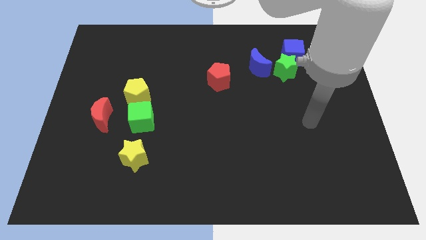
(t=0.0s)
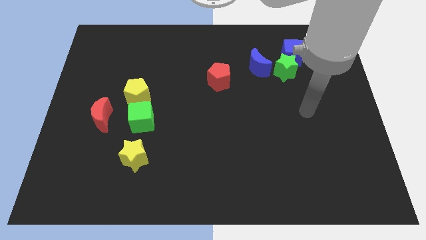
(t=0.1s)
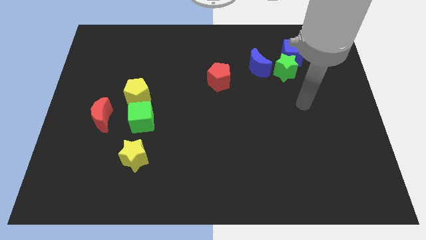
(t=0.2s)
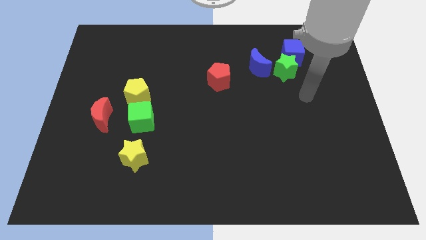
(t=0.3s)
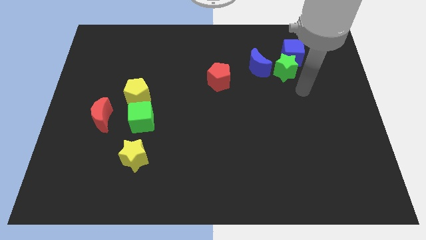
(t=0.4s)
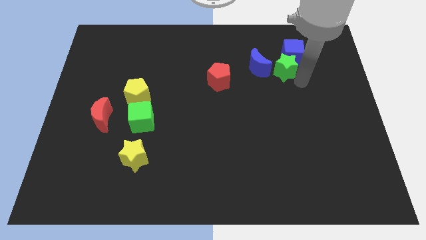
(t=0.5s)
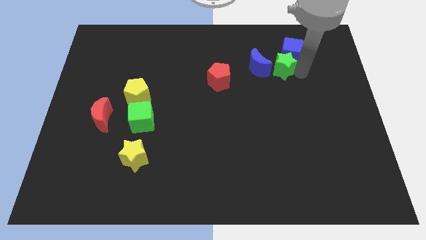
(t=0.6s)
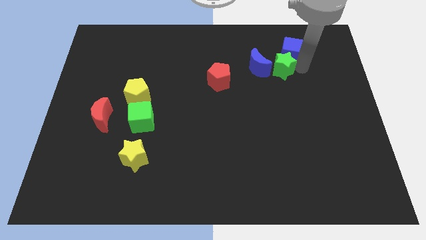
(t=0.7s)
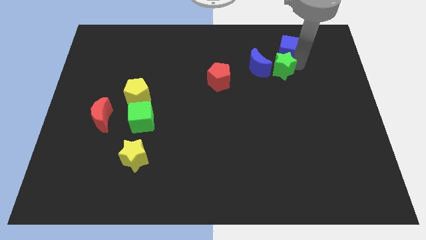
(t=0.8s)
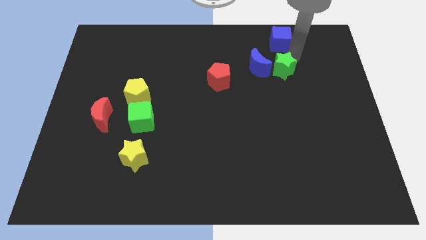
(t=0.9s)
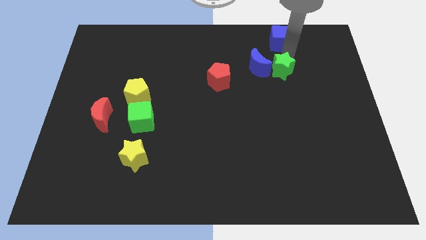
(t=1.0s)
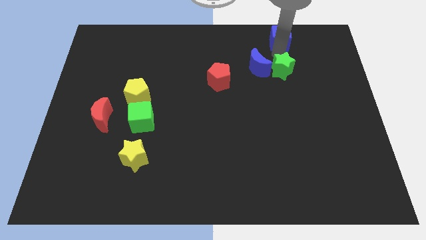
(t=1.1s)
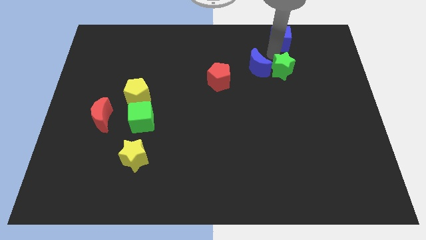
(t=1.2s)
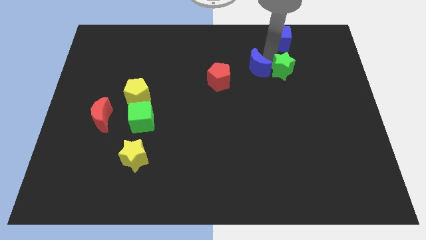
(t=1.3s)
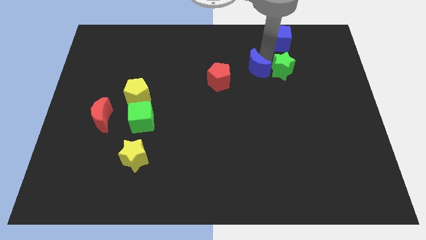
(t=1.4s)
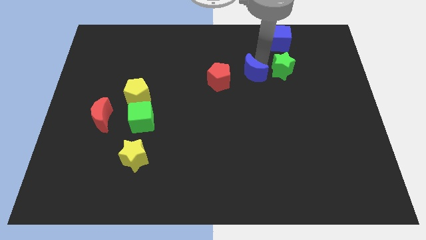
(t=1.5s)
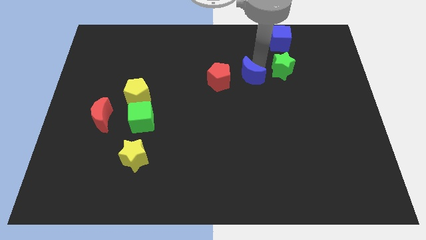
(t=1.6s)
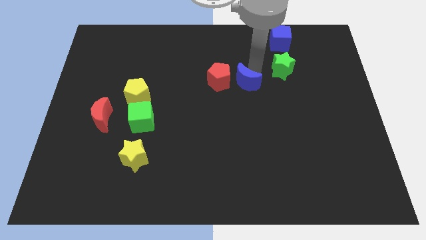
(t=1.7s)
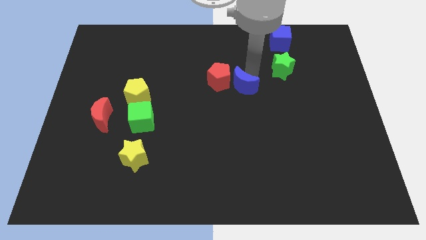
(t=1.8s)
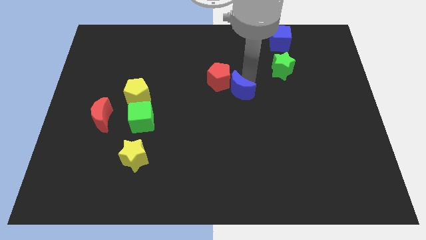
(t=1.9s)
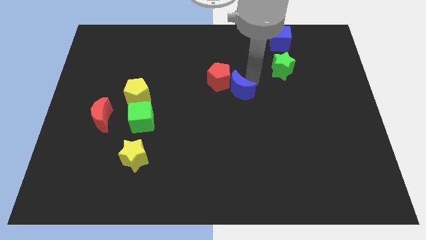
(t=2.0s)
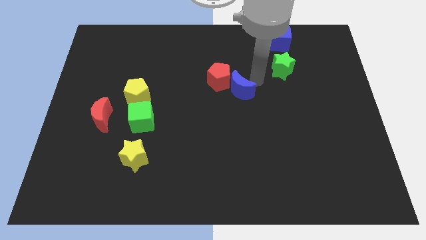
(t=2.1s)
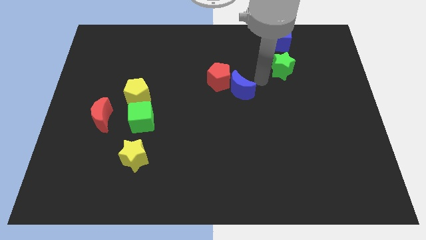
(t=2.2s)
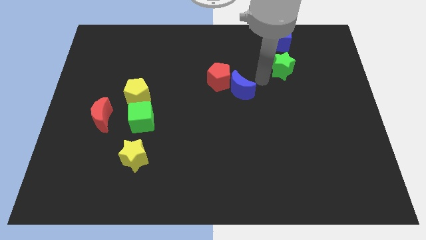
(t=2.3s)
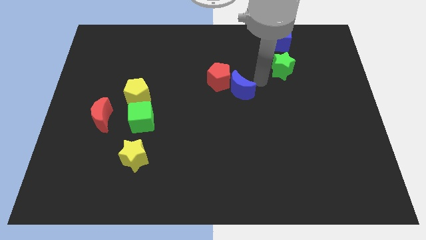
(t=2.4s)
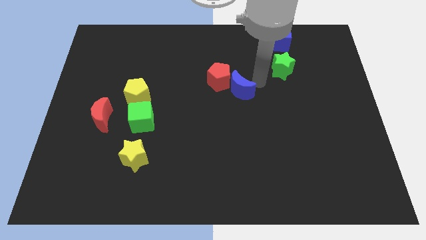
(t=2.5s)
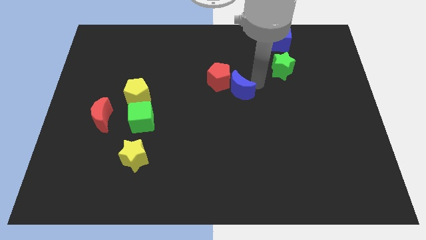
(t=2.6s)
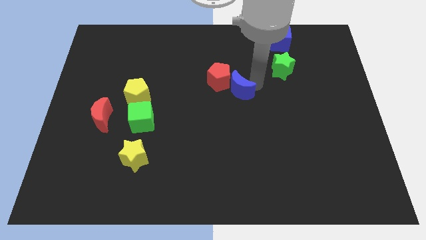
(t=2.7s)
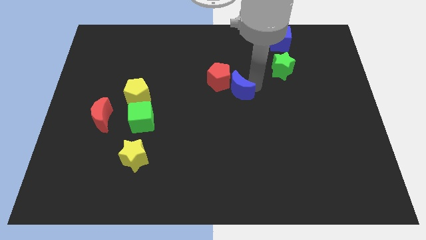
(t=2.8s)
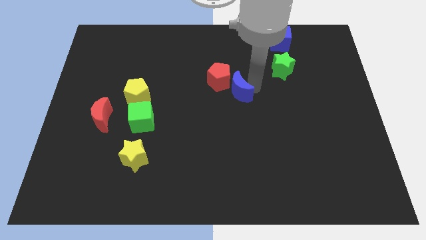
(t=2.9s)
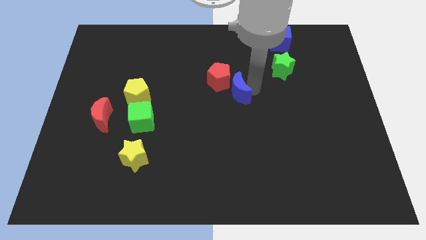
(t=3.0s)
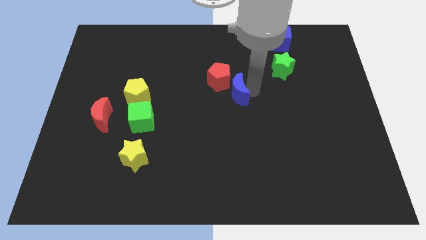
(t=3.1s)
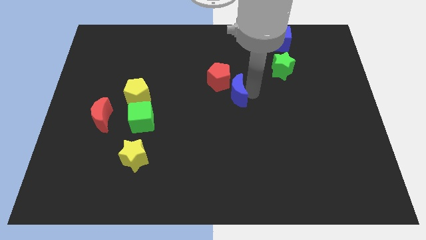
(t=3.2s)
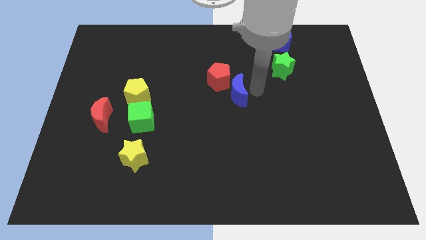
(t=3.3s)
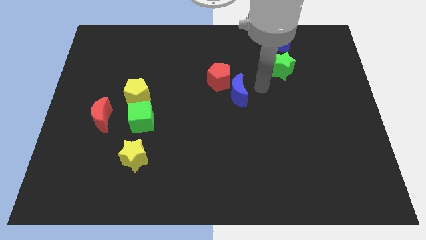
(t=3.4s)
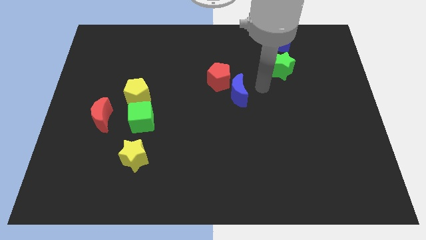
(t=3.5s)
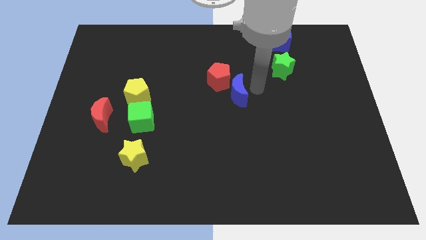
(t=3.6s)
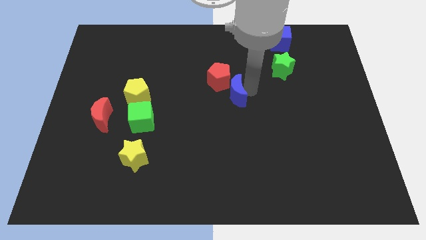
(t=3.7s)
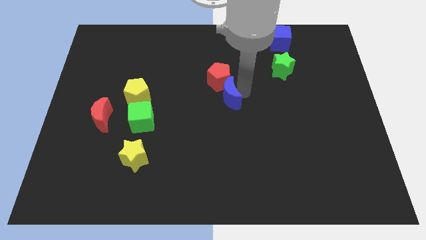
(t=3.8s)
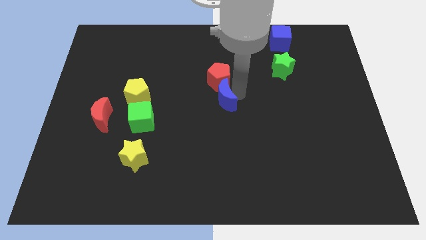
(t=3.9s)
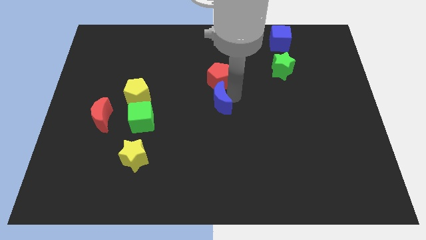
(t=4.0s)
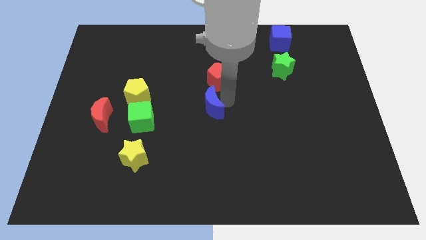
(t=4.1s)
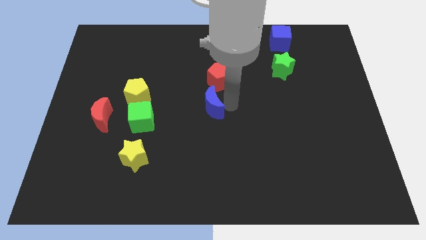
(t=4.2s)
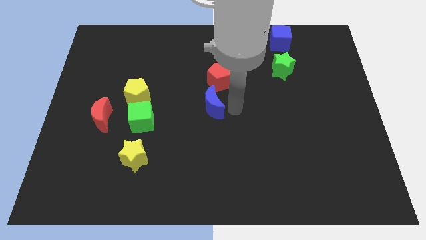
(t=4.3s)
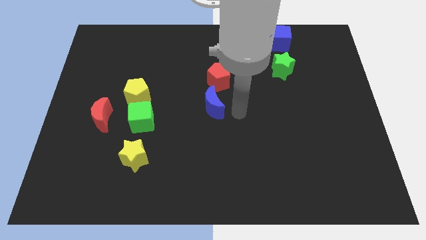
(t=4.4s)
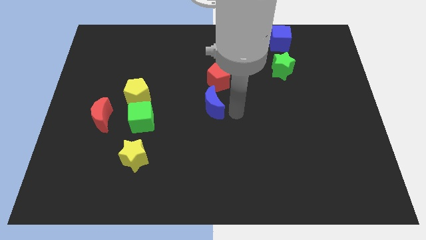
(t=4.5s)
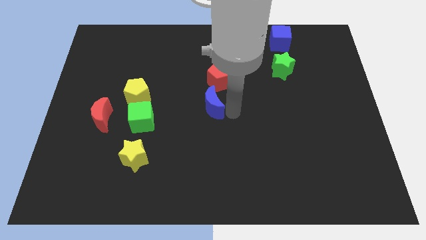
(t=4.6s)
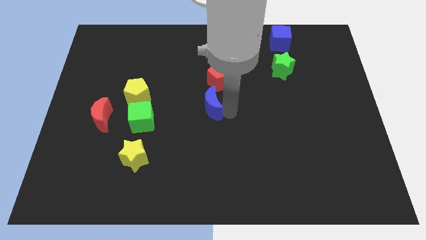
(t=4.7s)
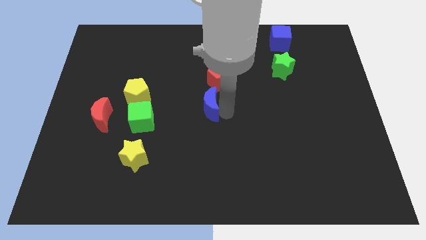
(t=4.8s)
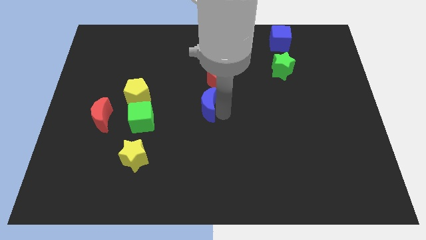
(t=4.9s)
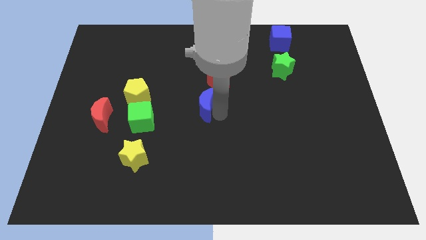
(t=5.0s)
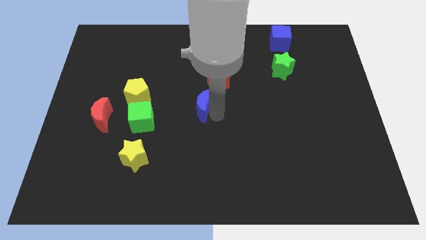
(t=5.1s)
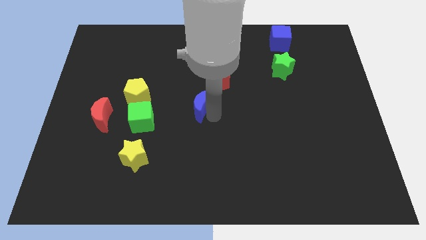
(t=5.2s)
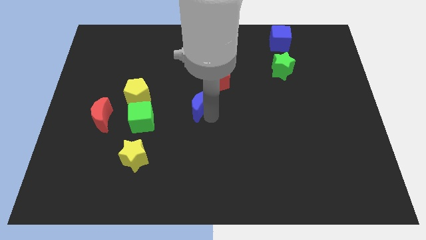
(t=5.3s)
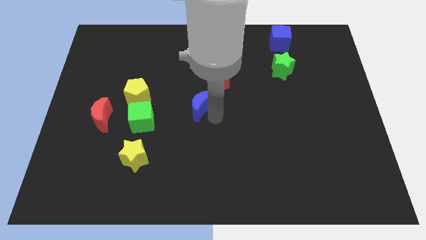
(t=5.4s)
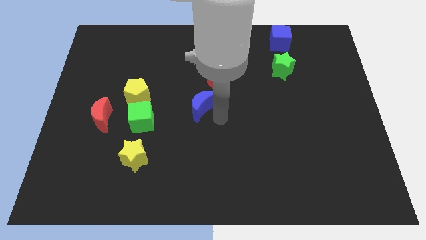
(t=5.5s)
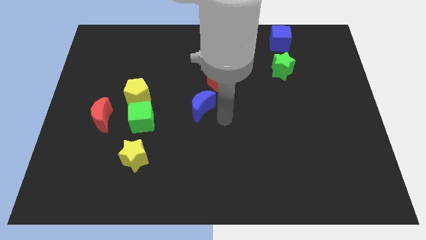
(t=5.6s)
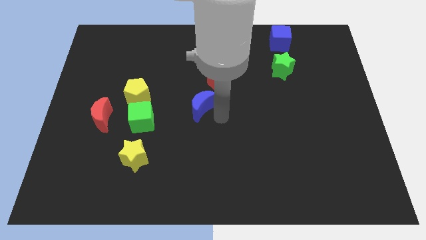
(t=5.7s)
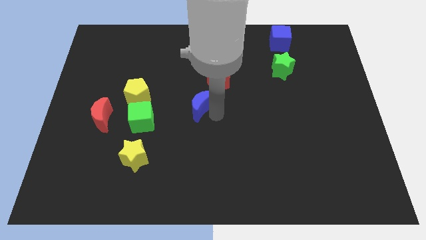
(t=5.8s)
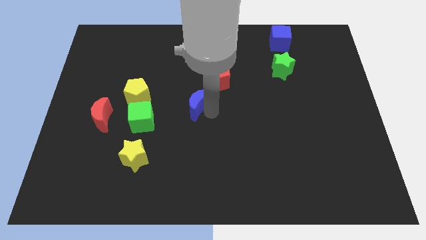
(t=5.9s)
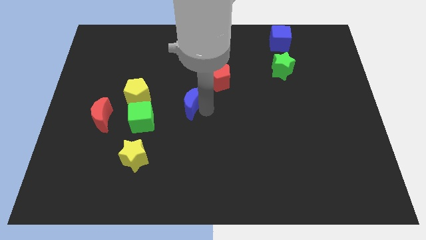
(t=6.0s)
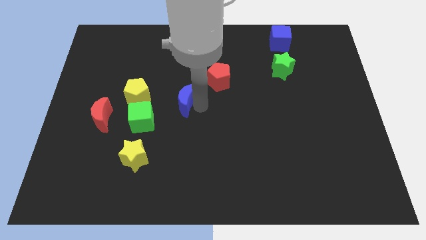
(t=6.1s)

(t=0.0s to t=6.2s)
push the blue moon diagonally up and to the right of the green cube

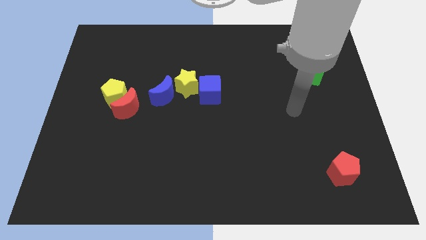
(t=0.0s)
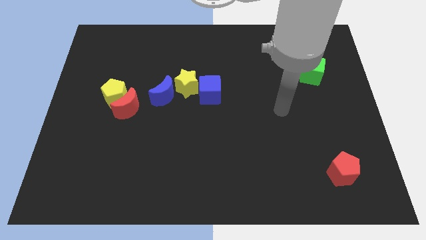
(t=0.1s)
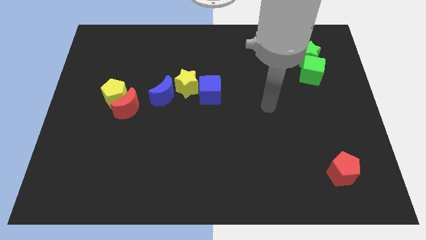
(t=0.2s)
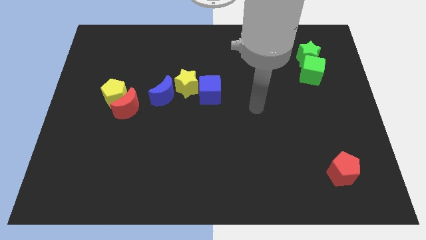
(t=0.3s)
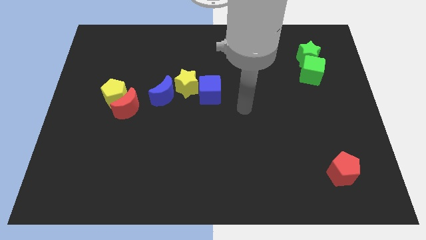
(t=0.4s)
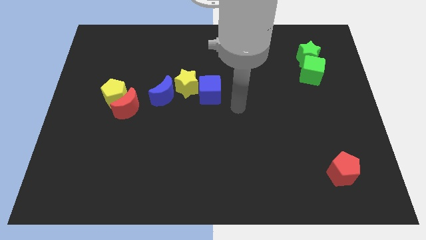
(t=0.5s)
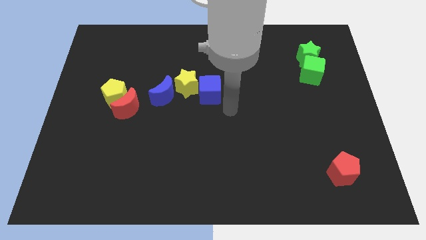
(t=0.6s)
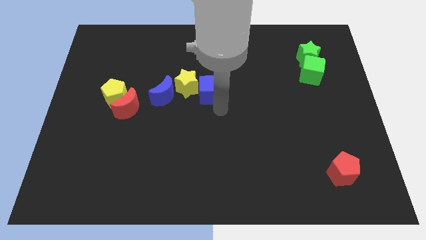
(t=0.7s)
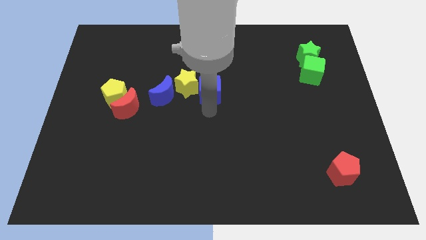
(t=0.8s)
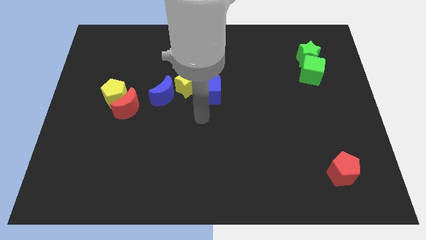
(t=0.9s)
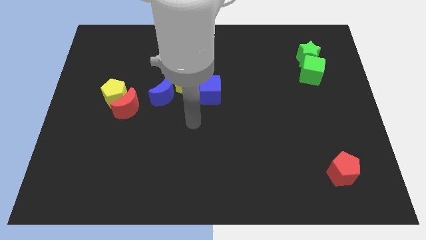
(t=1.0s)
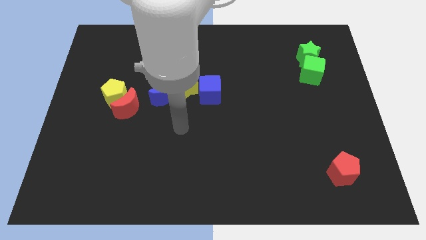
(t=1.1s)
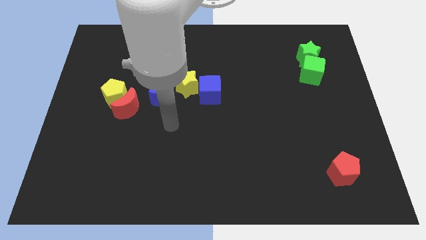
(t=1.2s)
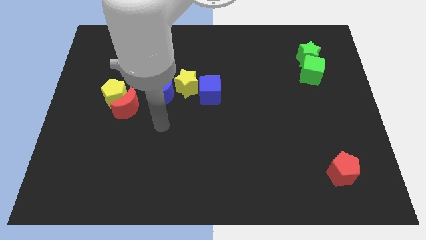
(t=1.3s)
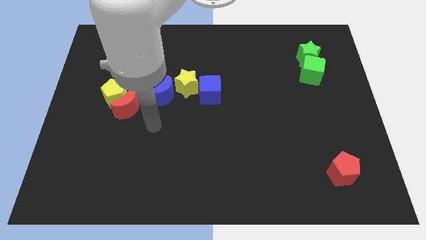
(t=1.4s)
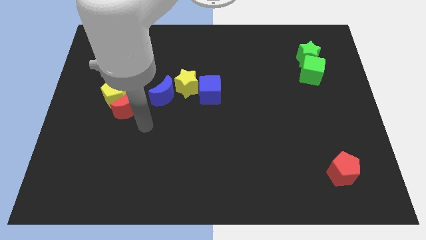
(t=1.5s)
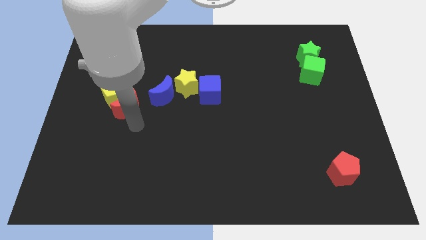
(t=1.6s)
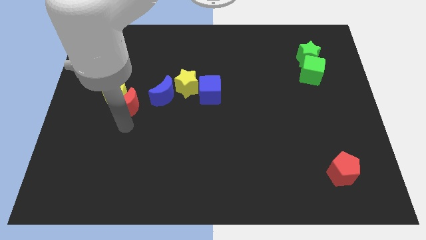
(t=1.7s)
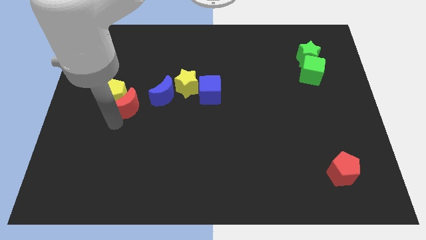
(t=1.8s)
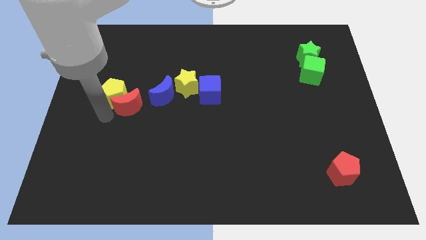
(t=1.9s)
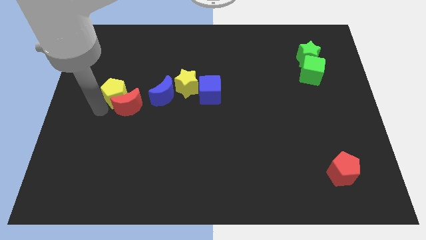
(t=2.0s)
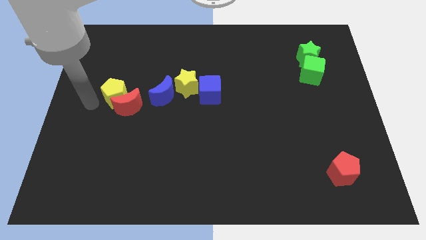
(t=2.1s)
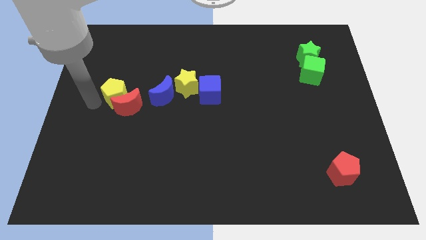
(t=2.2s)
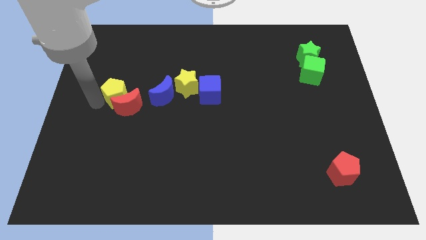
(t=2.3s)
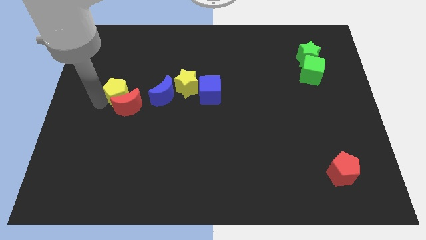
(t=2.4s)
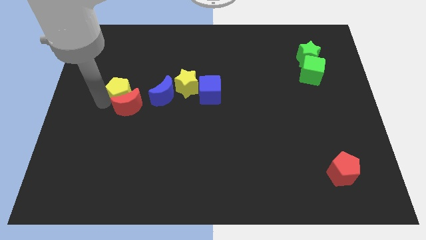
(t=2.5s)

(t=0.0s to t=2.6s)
slide the yellow pentagon diagonally up and to the right of the red moon
